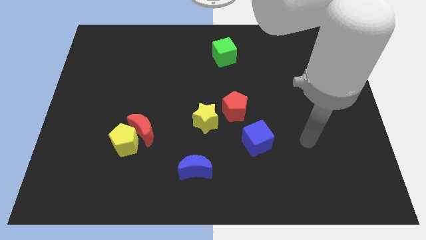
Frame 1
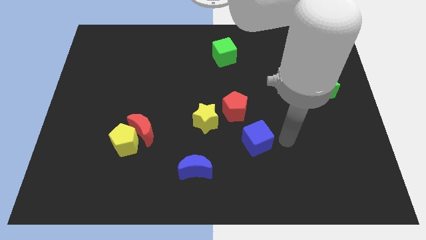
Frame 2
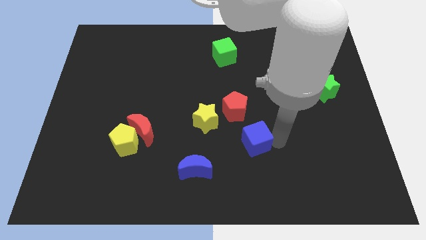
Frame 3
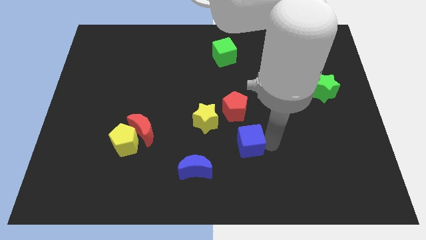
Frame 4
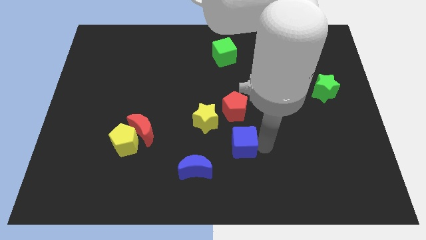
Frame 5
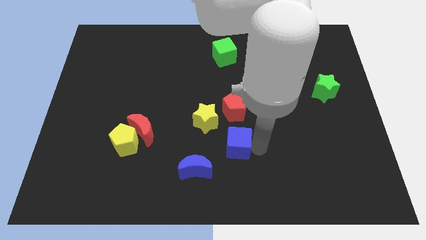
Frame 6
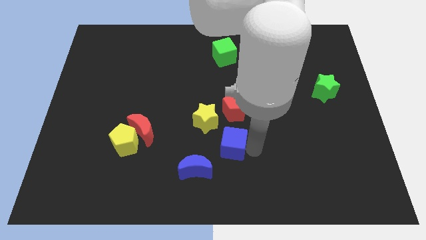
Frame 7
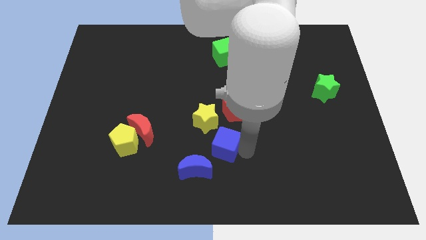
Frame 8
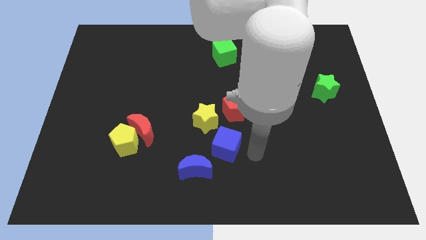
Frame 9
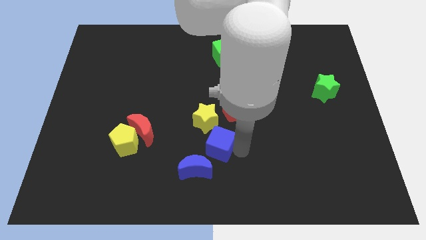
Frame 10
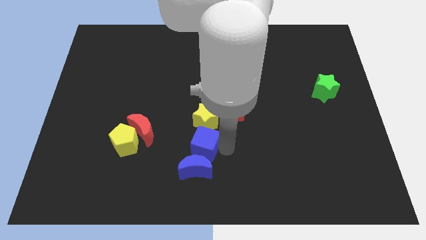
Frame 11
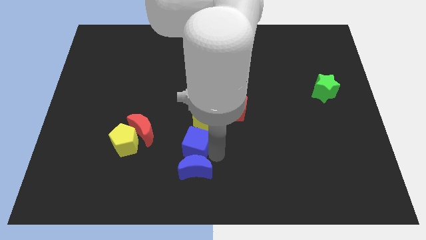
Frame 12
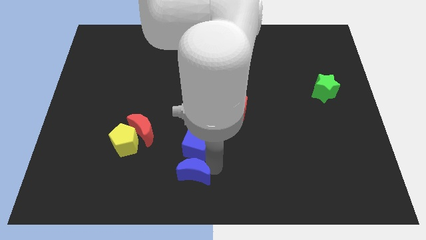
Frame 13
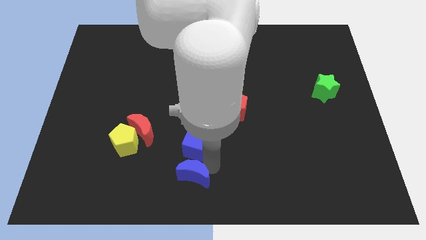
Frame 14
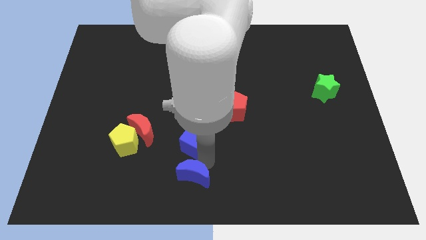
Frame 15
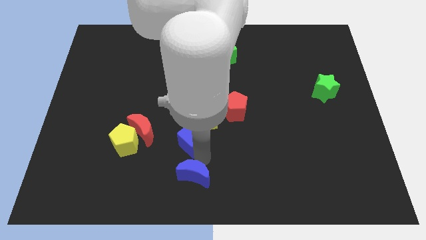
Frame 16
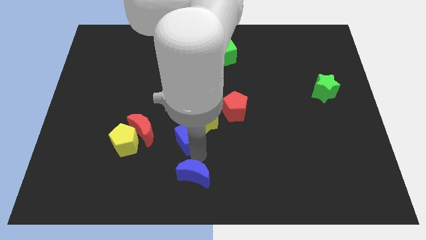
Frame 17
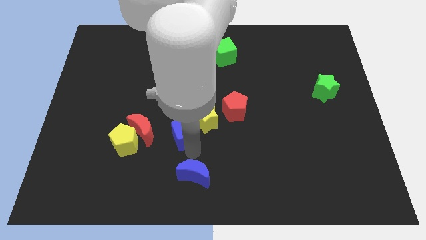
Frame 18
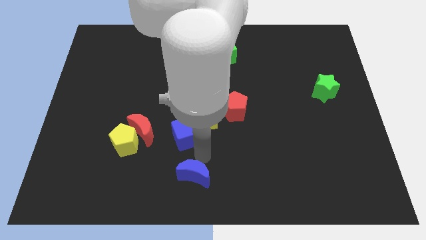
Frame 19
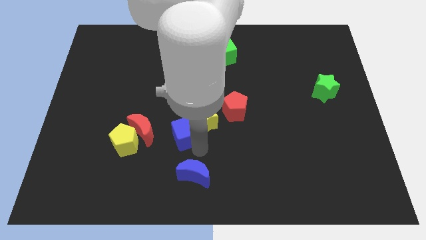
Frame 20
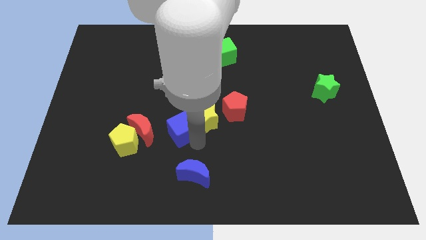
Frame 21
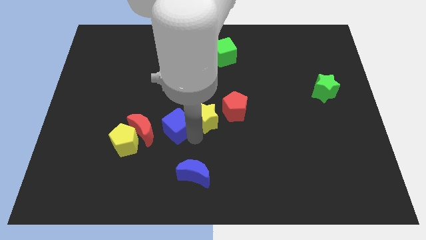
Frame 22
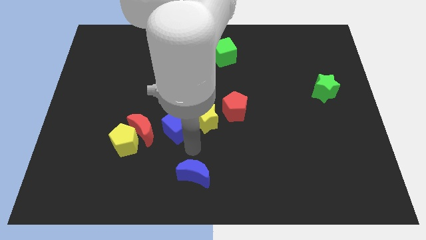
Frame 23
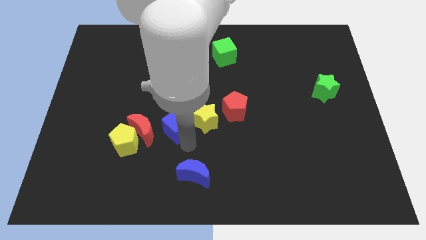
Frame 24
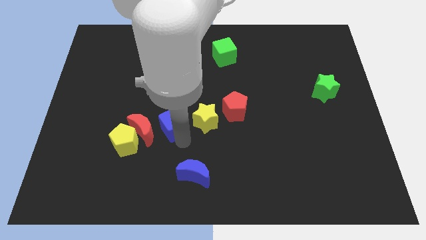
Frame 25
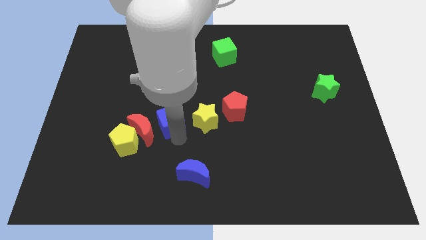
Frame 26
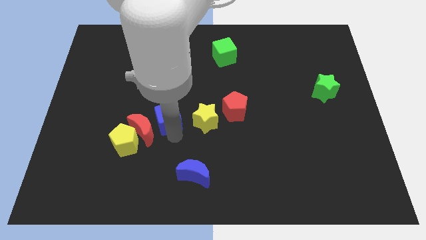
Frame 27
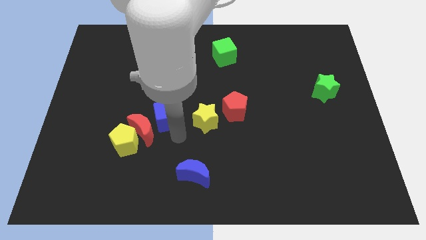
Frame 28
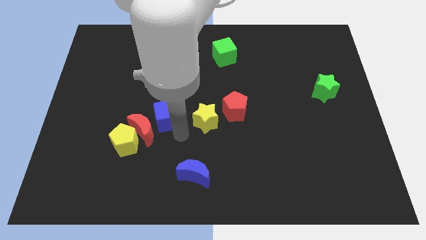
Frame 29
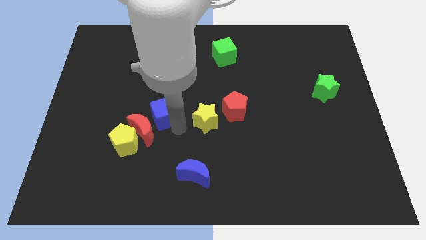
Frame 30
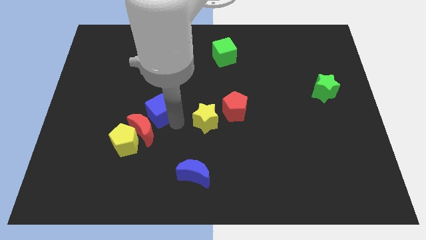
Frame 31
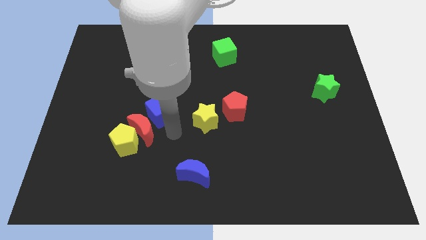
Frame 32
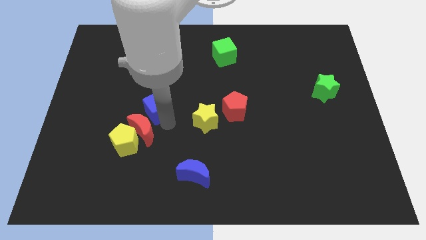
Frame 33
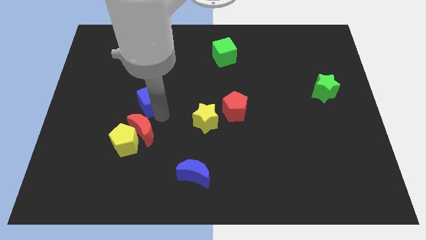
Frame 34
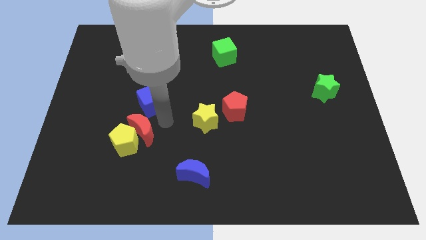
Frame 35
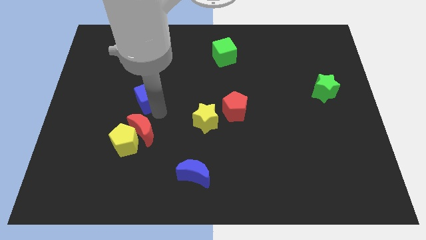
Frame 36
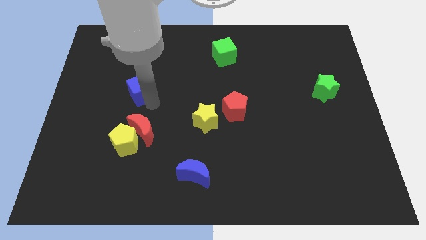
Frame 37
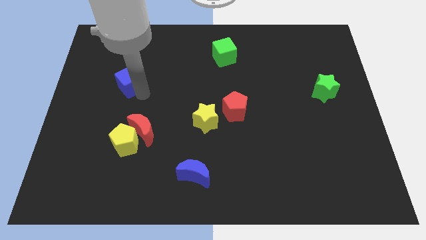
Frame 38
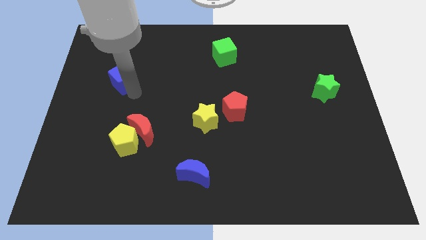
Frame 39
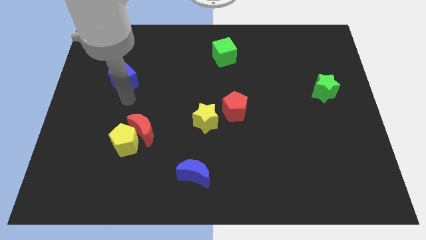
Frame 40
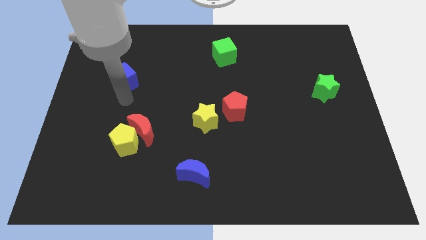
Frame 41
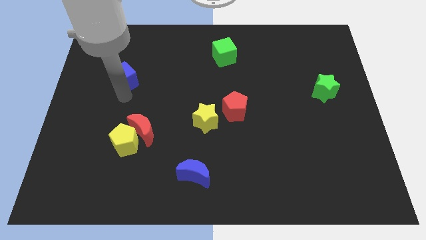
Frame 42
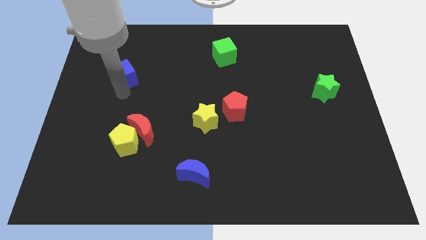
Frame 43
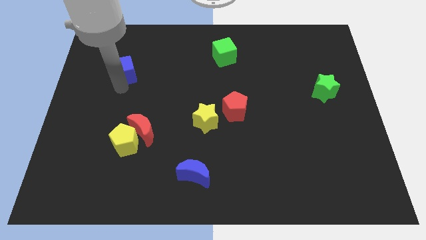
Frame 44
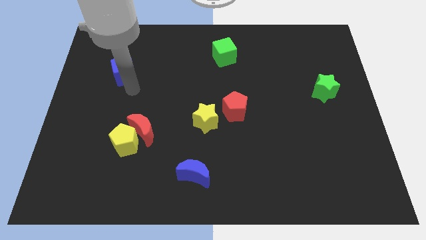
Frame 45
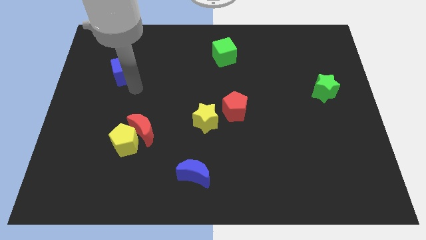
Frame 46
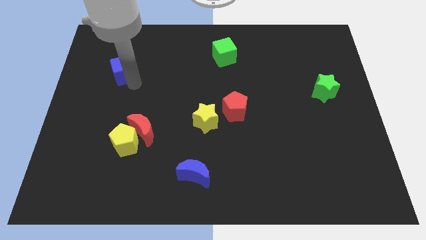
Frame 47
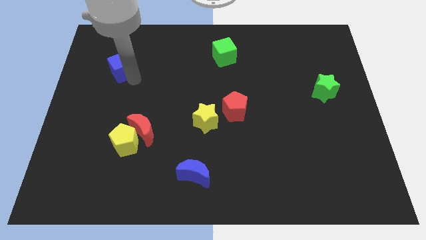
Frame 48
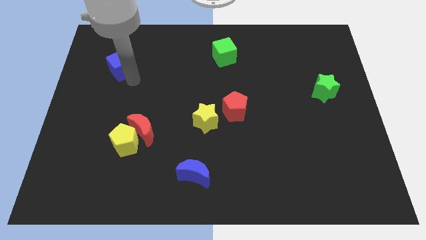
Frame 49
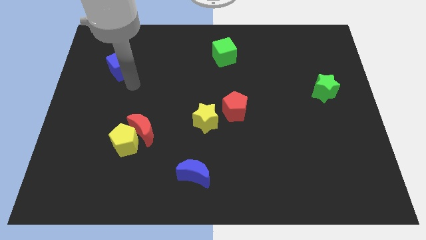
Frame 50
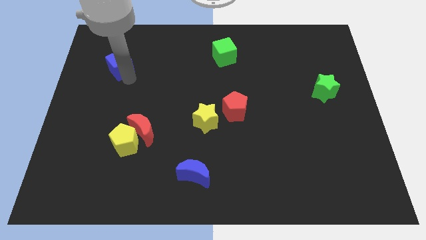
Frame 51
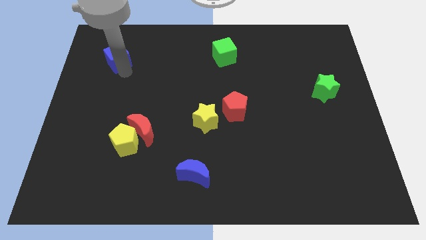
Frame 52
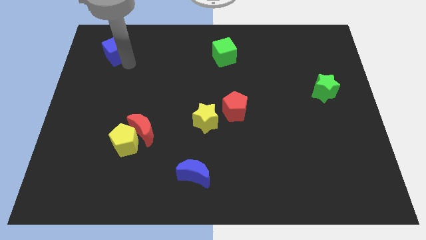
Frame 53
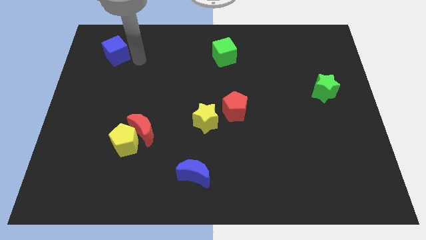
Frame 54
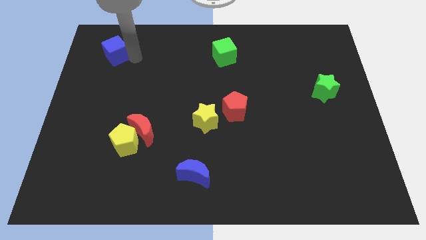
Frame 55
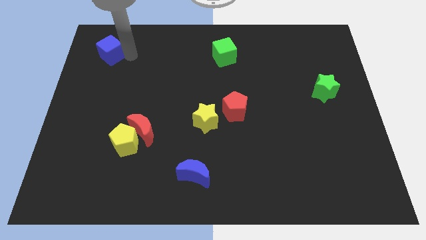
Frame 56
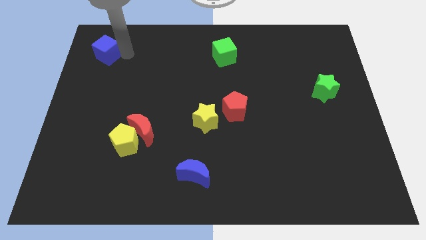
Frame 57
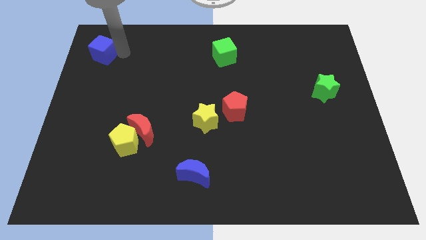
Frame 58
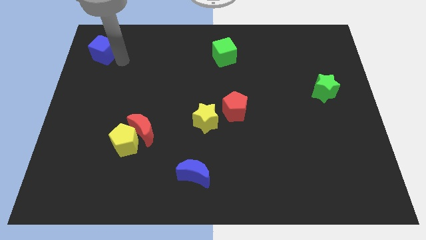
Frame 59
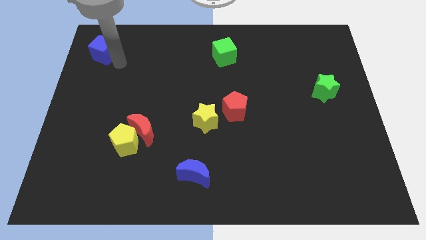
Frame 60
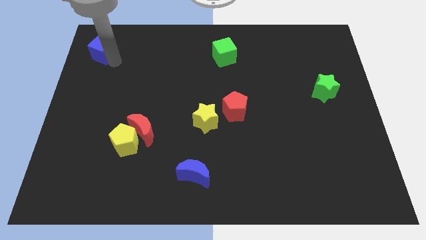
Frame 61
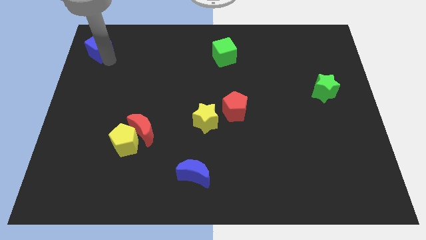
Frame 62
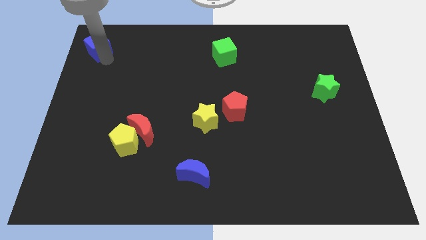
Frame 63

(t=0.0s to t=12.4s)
push the blue cube to the upper left corner

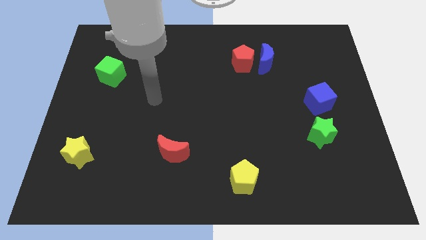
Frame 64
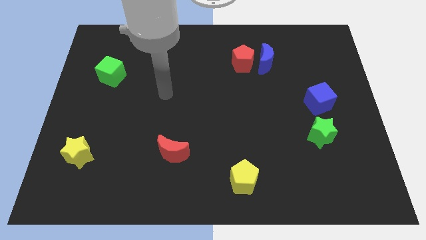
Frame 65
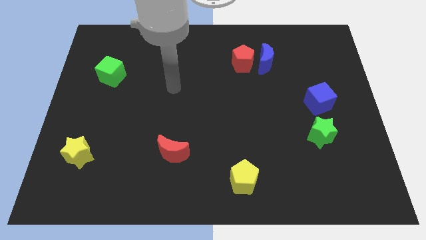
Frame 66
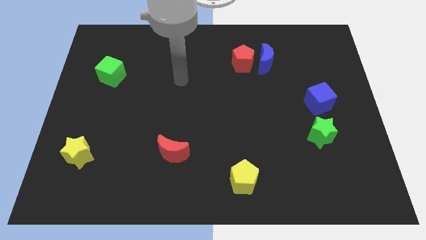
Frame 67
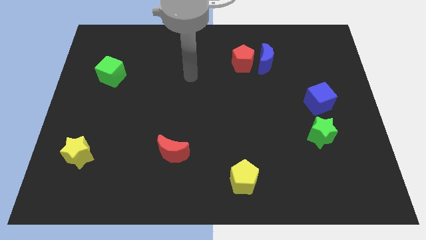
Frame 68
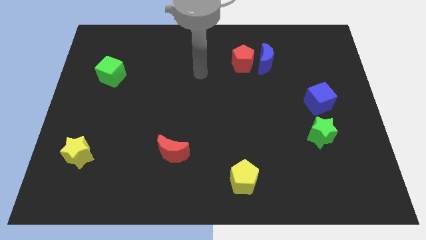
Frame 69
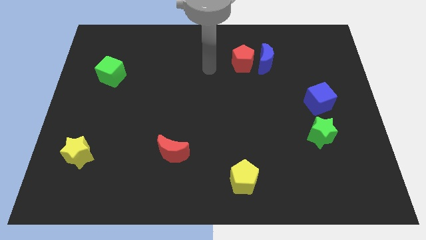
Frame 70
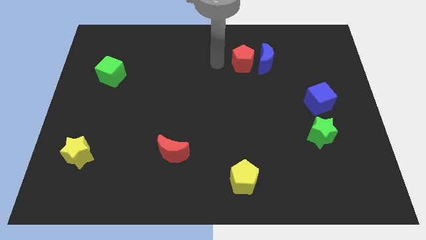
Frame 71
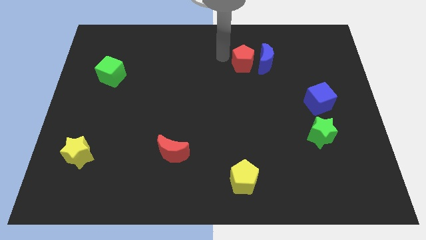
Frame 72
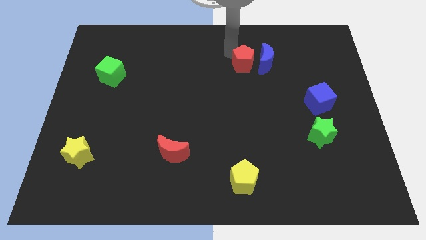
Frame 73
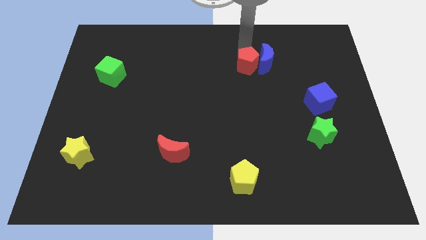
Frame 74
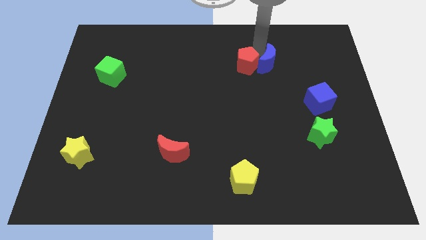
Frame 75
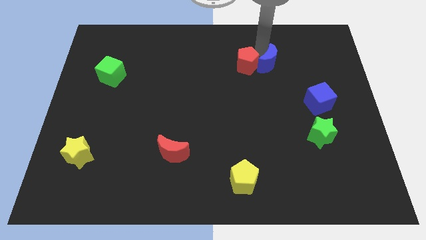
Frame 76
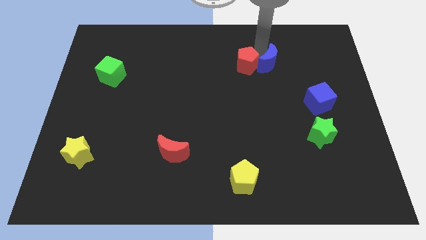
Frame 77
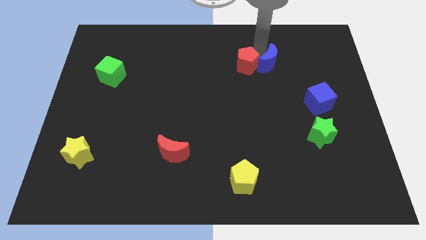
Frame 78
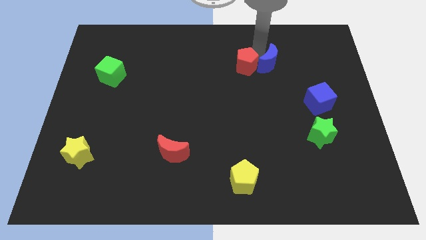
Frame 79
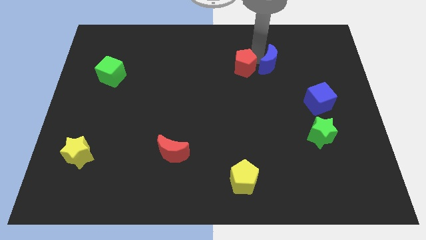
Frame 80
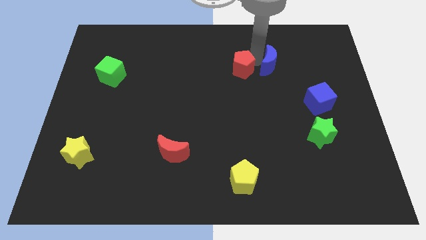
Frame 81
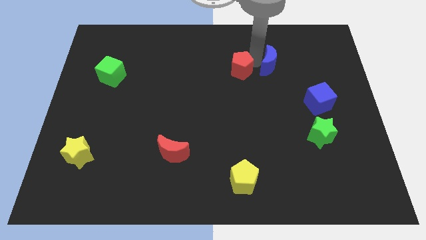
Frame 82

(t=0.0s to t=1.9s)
slide the red pentagon to the center
